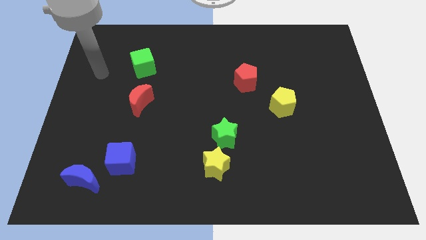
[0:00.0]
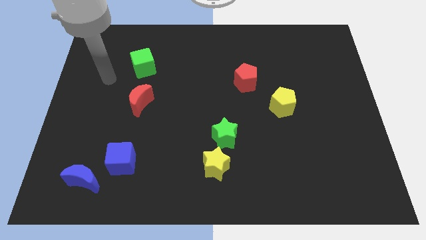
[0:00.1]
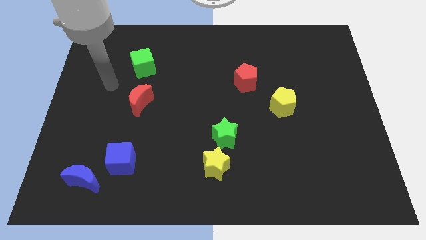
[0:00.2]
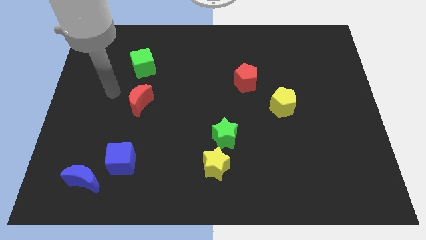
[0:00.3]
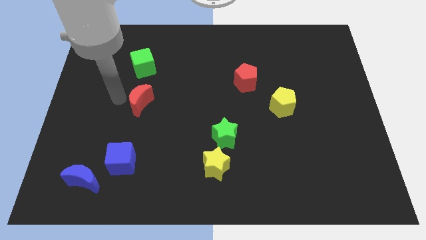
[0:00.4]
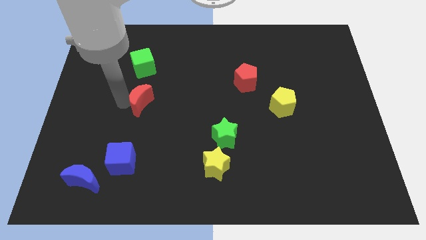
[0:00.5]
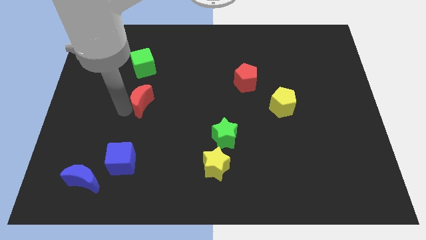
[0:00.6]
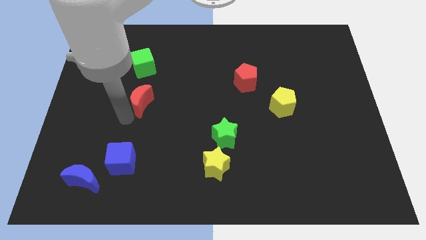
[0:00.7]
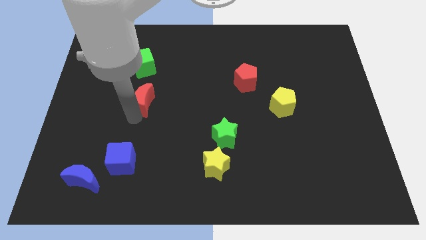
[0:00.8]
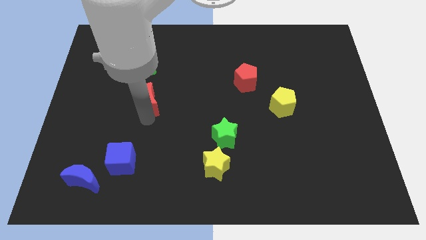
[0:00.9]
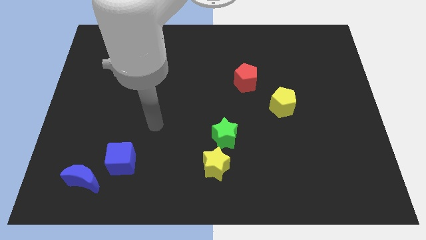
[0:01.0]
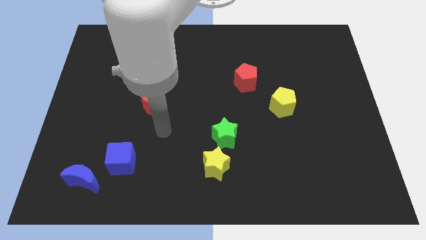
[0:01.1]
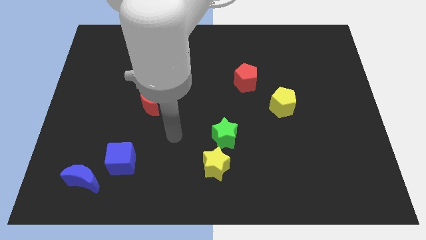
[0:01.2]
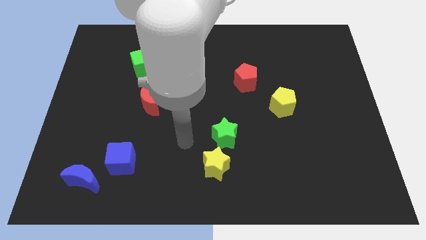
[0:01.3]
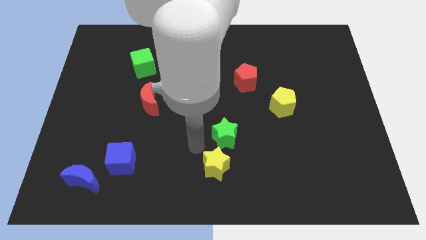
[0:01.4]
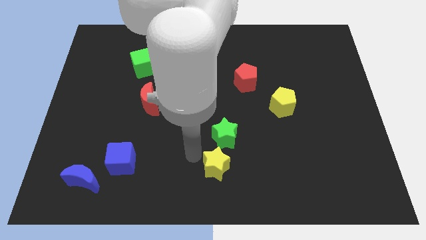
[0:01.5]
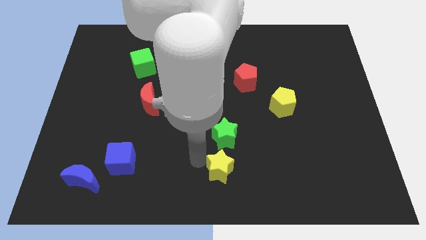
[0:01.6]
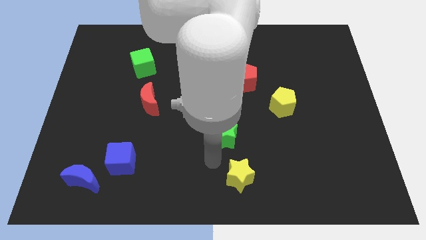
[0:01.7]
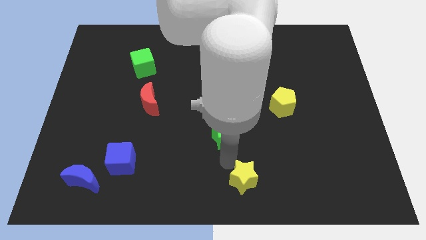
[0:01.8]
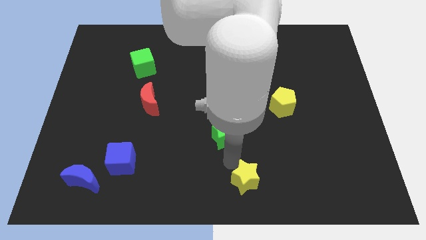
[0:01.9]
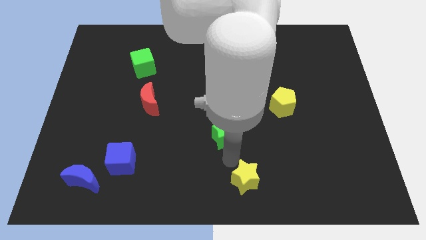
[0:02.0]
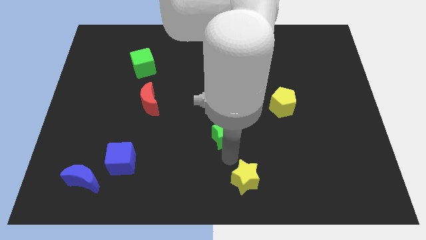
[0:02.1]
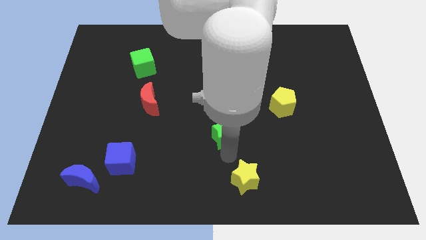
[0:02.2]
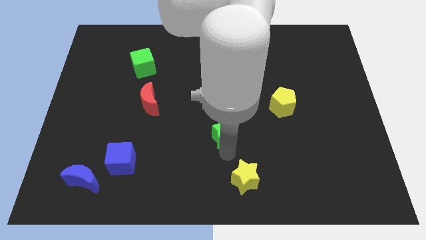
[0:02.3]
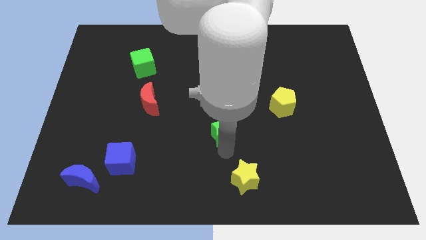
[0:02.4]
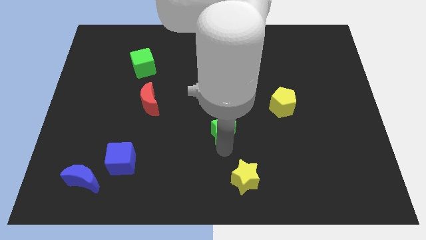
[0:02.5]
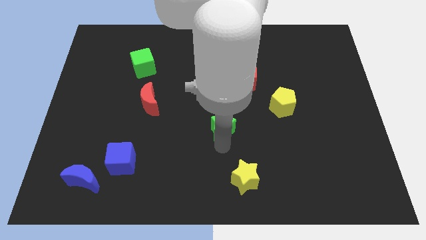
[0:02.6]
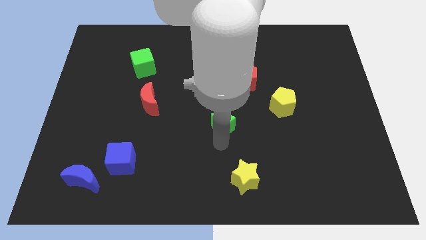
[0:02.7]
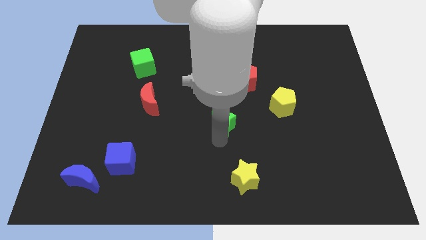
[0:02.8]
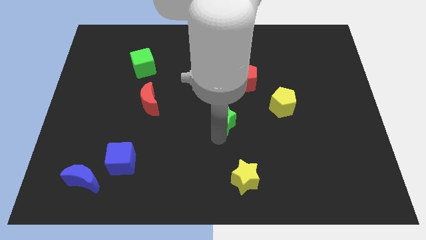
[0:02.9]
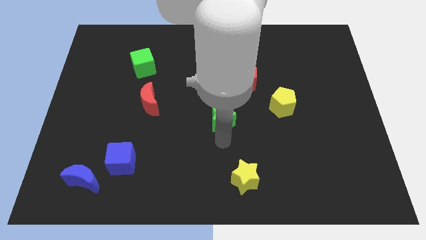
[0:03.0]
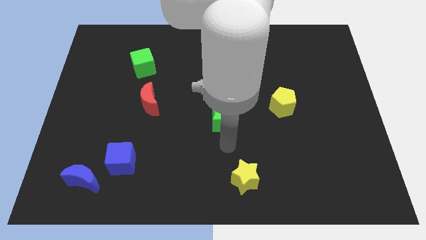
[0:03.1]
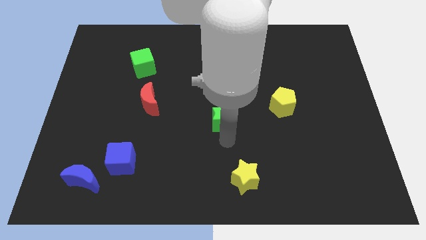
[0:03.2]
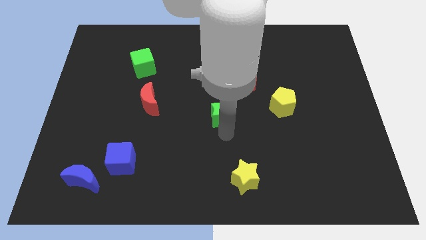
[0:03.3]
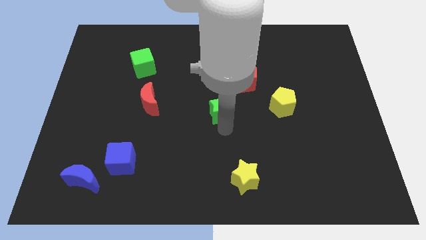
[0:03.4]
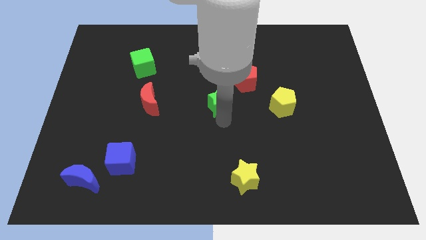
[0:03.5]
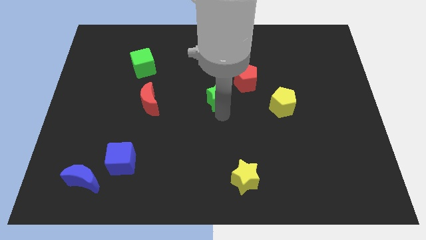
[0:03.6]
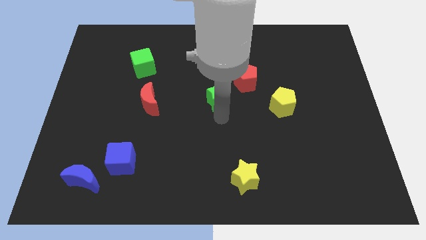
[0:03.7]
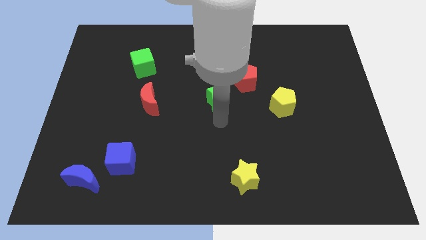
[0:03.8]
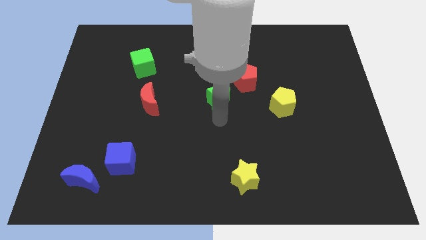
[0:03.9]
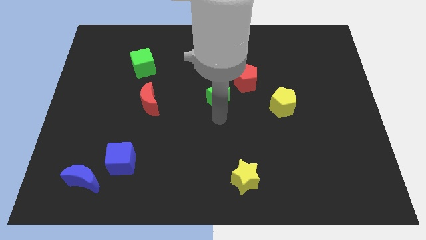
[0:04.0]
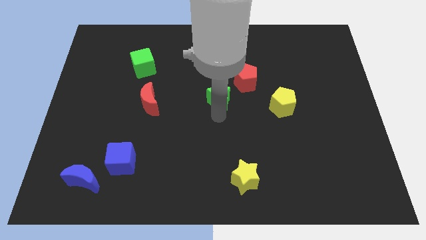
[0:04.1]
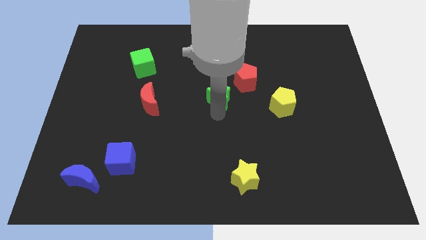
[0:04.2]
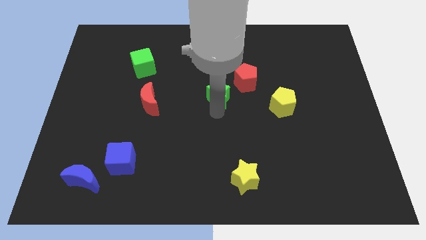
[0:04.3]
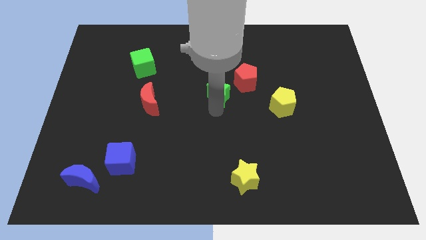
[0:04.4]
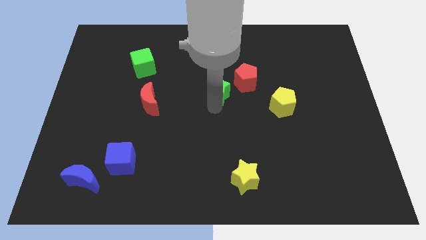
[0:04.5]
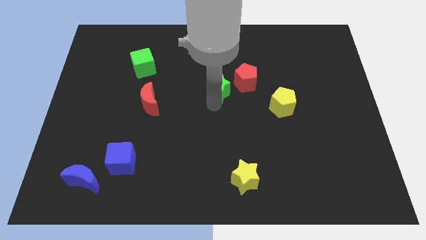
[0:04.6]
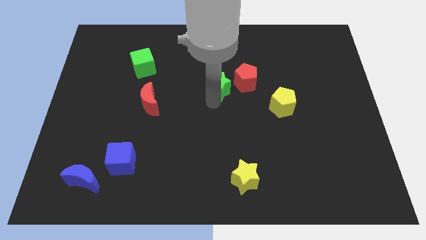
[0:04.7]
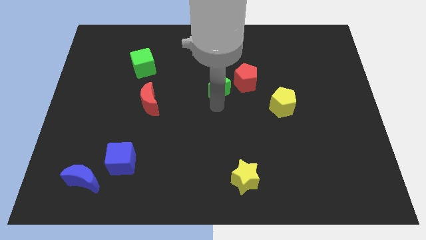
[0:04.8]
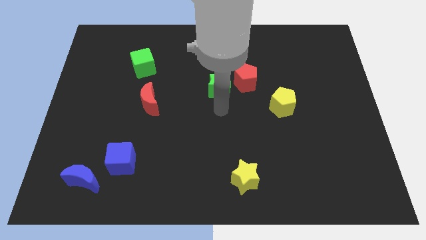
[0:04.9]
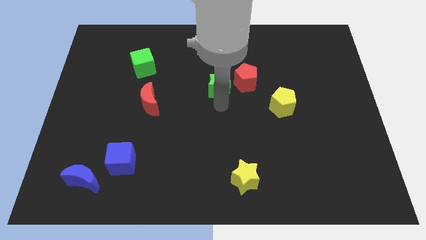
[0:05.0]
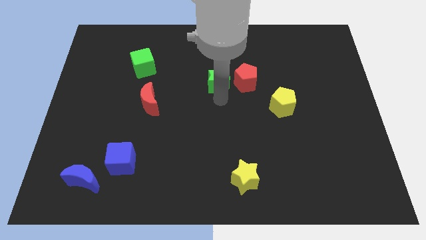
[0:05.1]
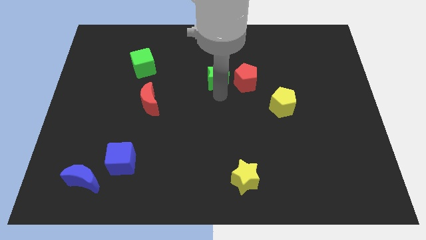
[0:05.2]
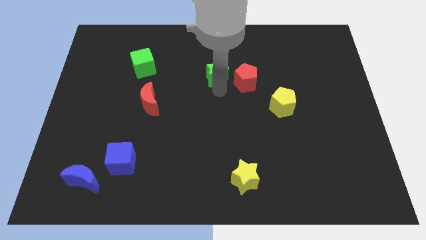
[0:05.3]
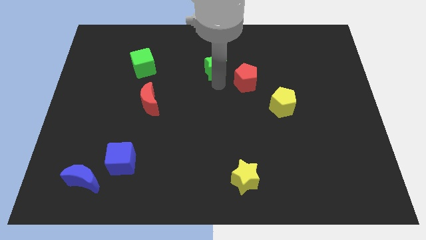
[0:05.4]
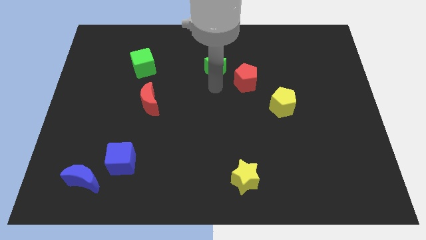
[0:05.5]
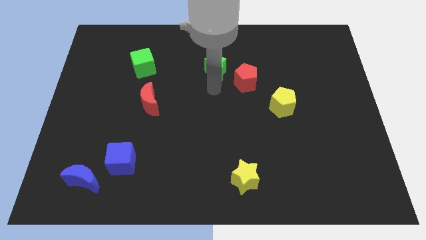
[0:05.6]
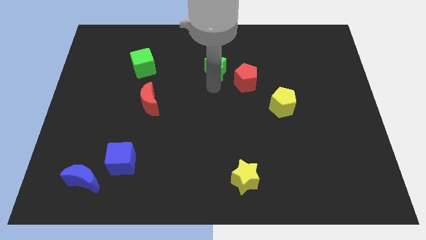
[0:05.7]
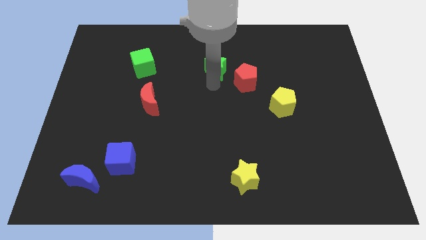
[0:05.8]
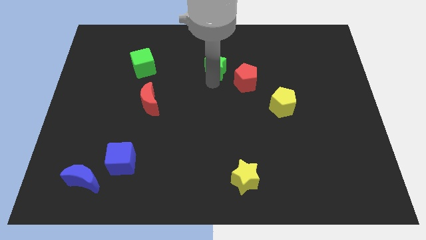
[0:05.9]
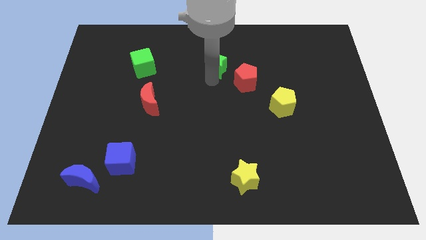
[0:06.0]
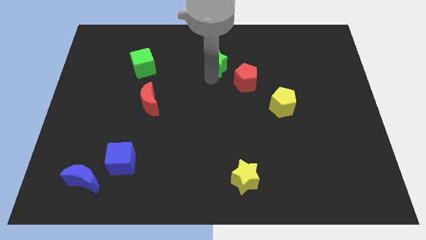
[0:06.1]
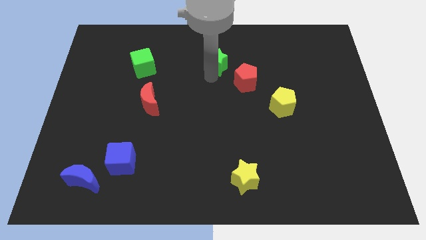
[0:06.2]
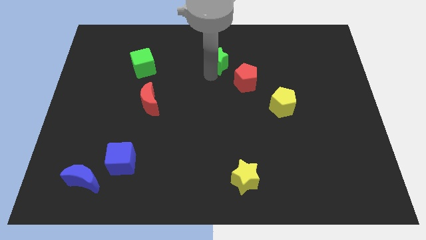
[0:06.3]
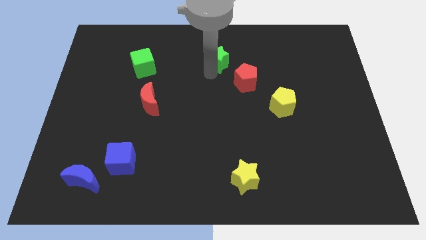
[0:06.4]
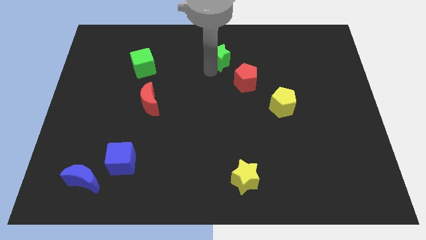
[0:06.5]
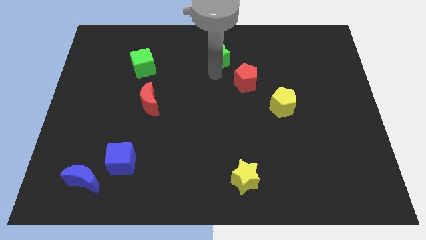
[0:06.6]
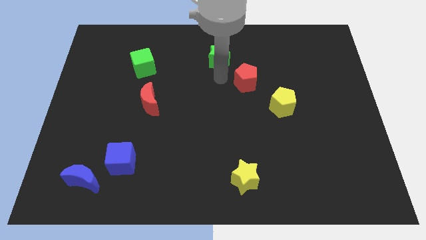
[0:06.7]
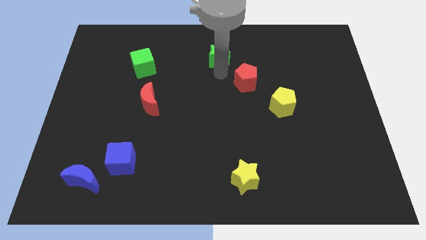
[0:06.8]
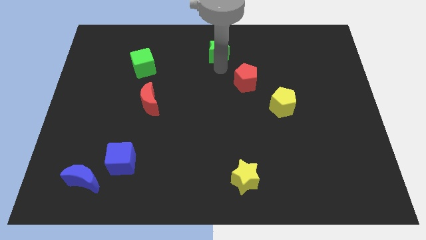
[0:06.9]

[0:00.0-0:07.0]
put the green star to the top

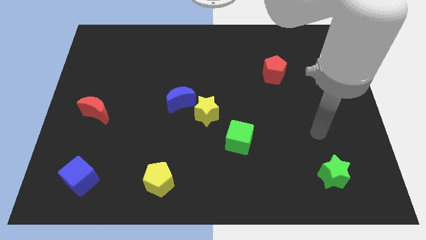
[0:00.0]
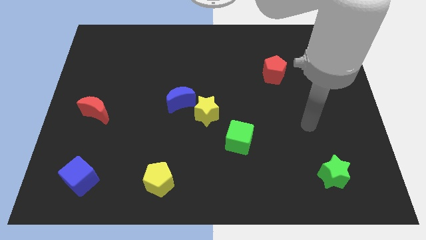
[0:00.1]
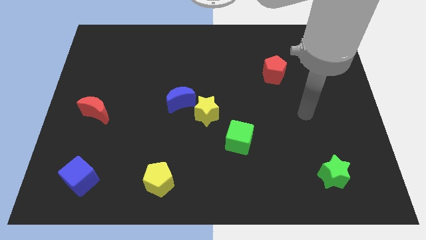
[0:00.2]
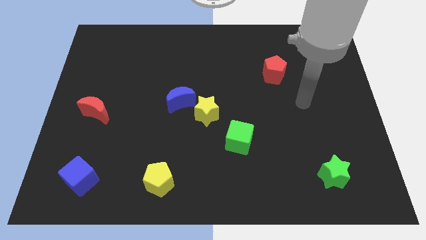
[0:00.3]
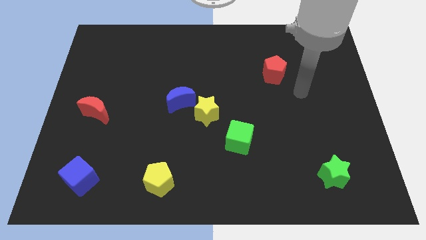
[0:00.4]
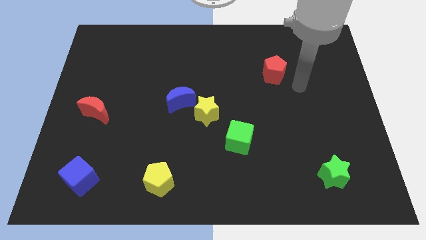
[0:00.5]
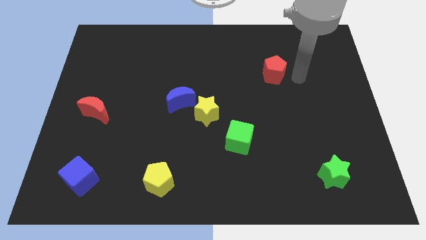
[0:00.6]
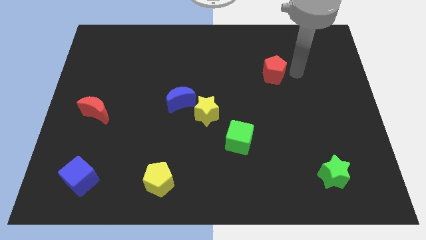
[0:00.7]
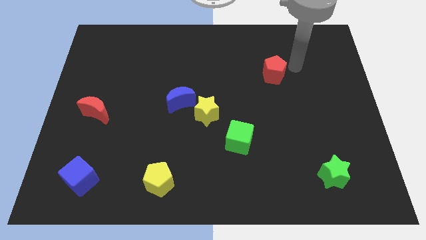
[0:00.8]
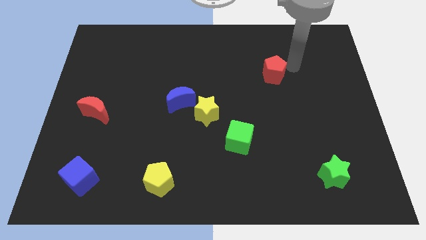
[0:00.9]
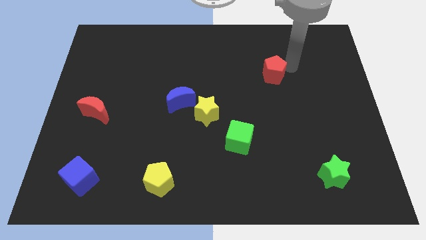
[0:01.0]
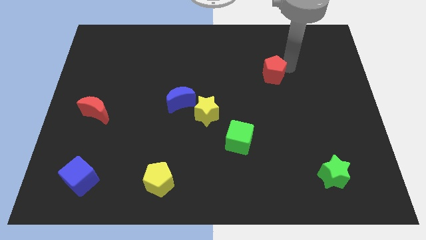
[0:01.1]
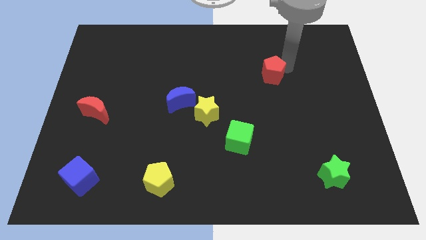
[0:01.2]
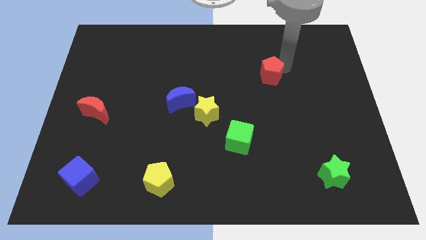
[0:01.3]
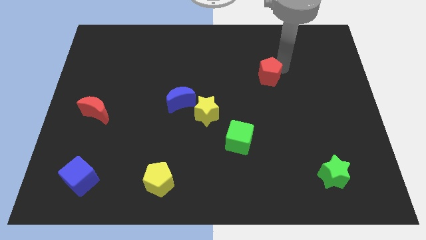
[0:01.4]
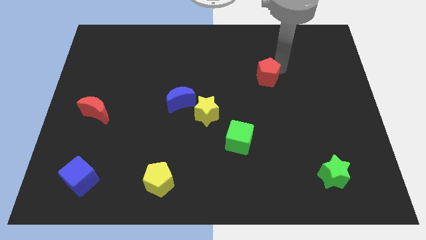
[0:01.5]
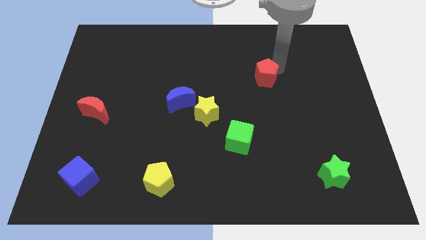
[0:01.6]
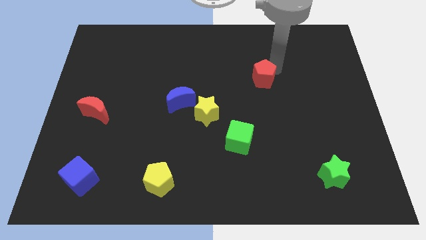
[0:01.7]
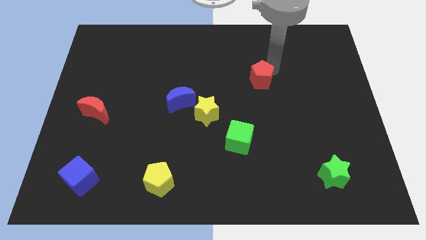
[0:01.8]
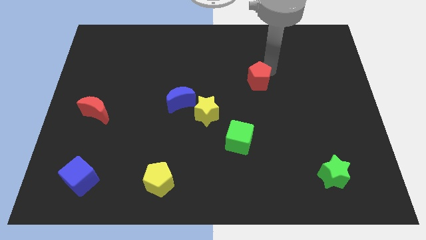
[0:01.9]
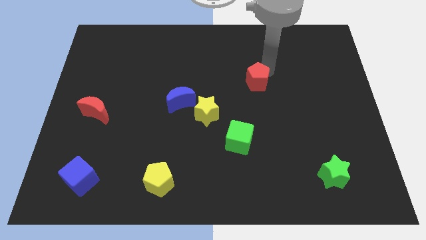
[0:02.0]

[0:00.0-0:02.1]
move the red pentagon to the center
